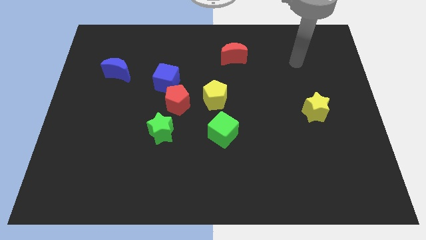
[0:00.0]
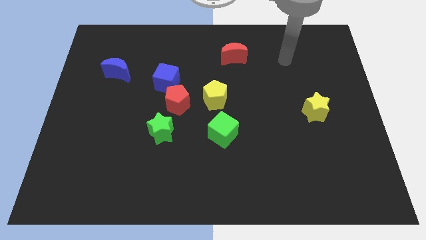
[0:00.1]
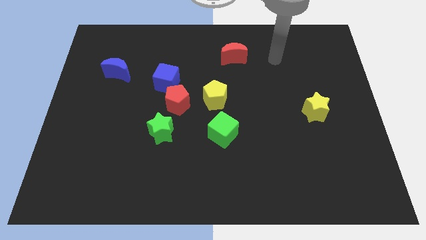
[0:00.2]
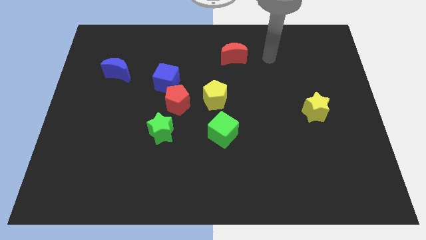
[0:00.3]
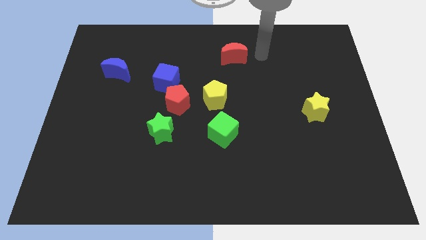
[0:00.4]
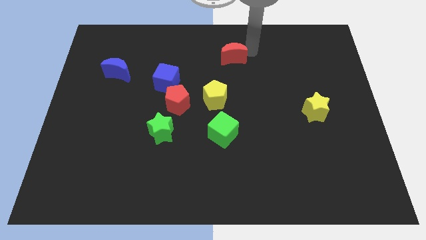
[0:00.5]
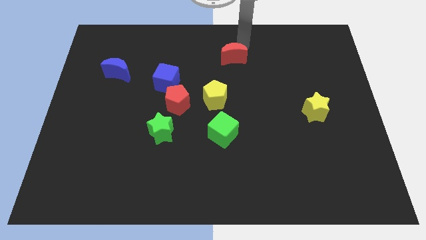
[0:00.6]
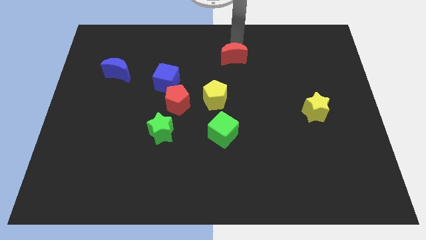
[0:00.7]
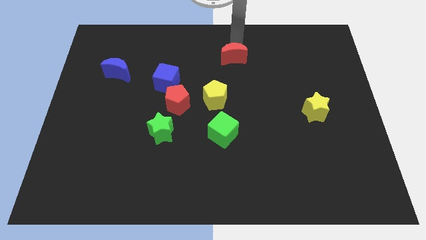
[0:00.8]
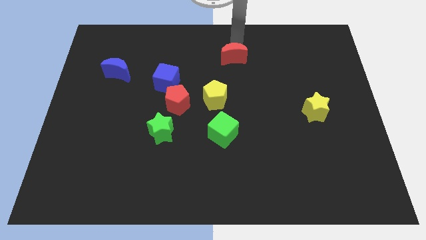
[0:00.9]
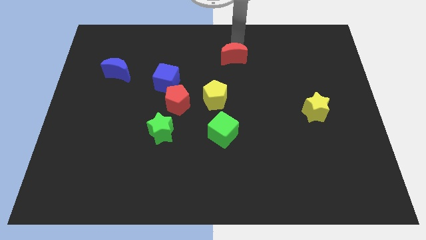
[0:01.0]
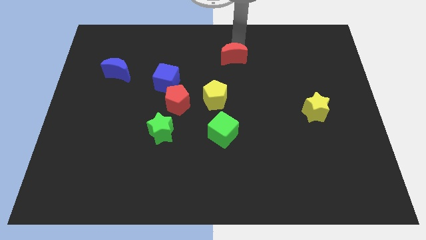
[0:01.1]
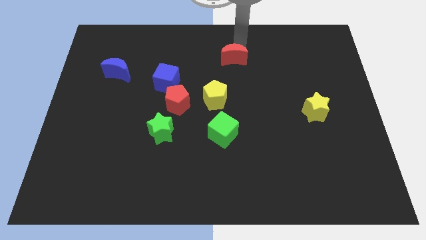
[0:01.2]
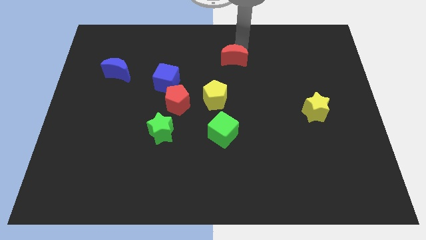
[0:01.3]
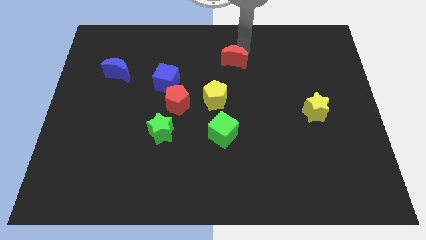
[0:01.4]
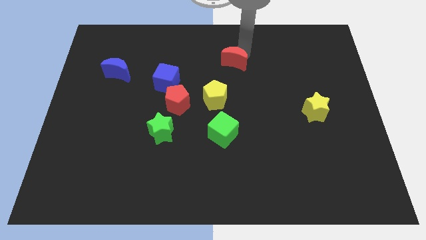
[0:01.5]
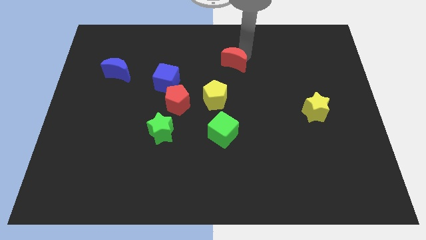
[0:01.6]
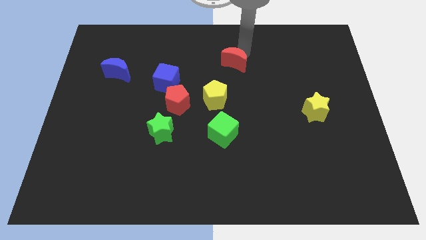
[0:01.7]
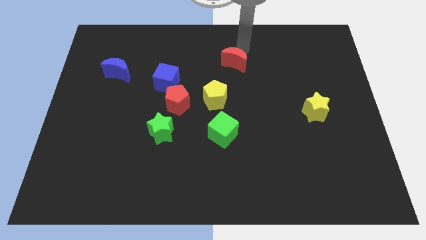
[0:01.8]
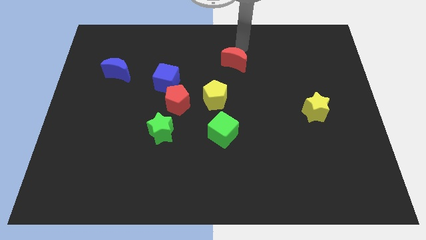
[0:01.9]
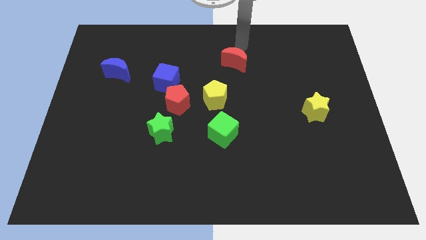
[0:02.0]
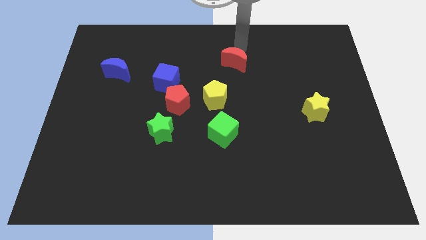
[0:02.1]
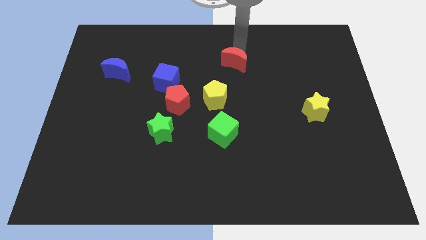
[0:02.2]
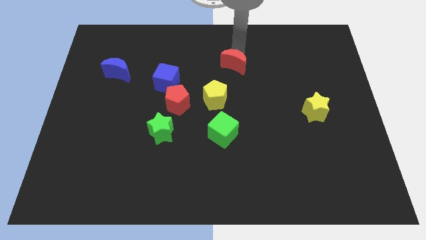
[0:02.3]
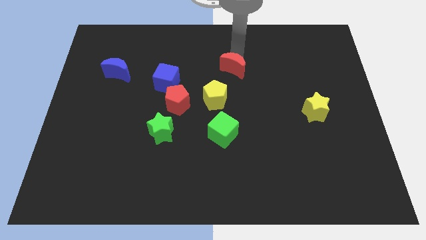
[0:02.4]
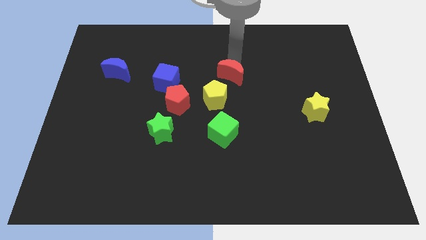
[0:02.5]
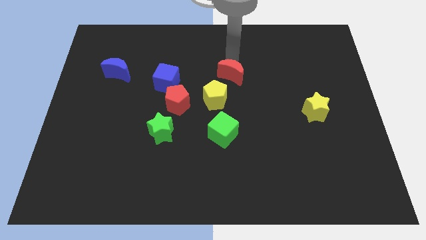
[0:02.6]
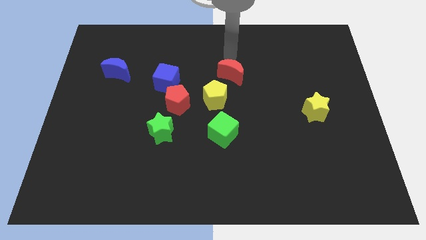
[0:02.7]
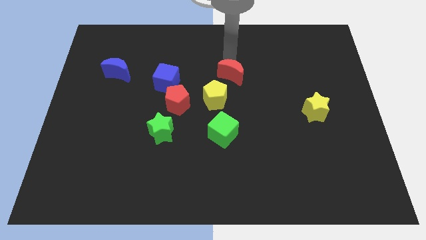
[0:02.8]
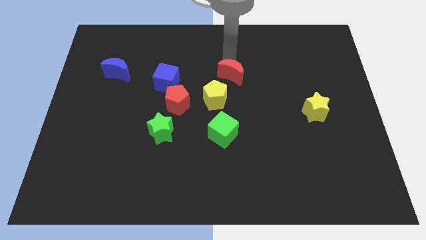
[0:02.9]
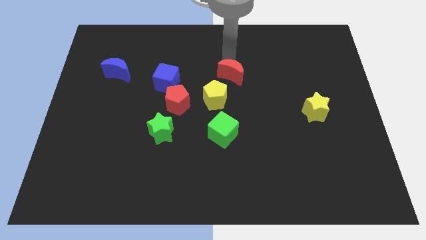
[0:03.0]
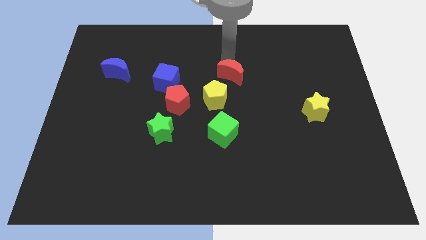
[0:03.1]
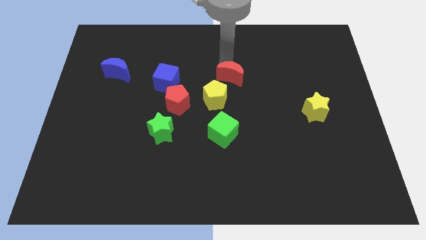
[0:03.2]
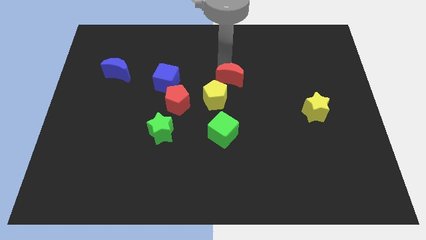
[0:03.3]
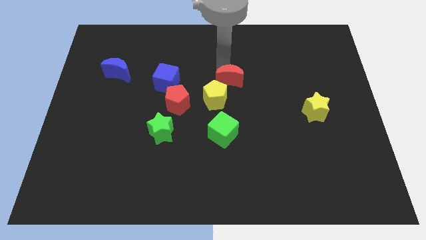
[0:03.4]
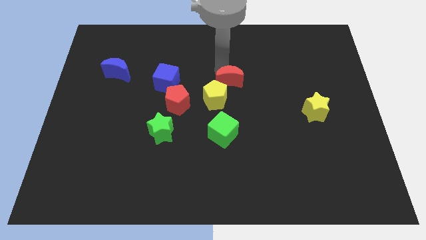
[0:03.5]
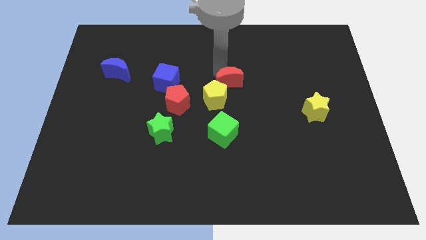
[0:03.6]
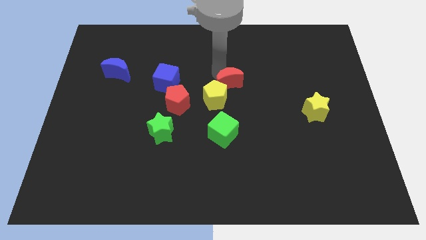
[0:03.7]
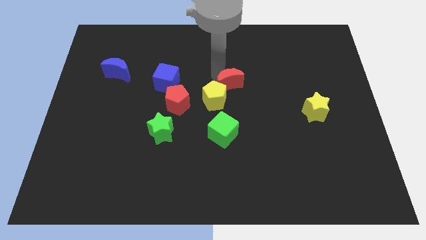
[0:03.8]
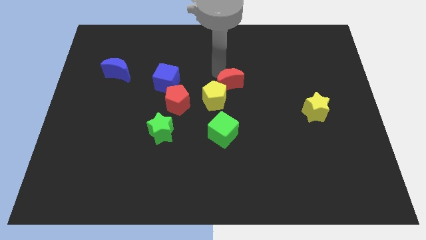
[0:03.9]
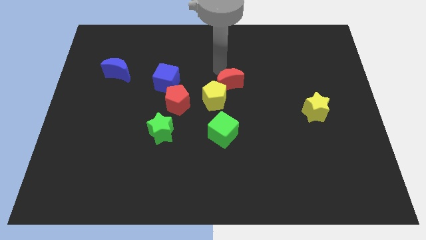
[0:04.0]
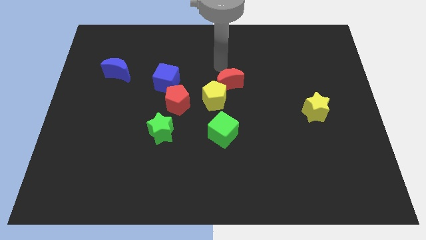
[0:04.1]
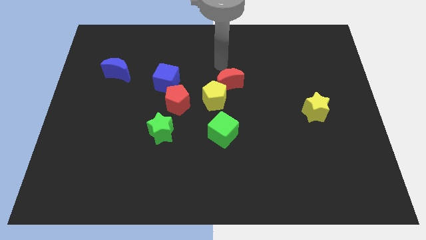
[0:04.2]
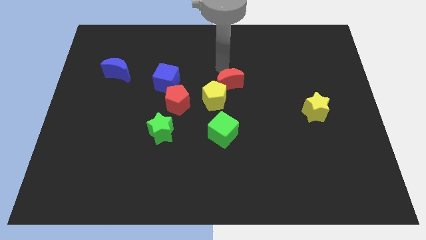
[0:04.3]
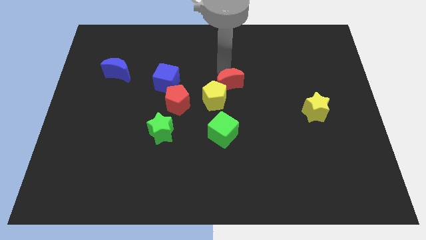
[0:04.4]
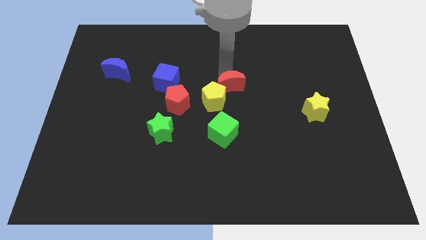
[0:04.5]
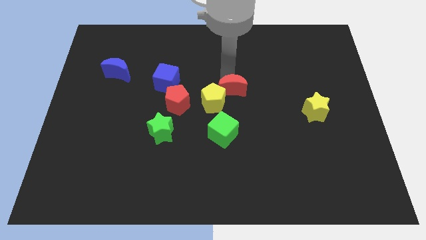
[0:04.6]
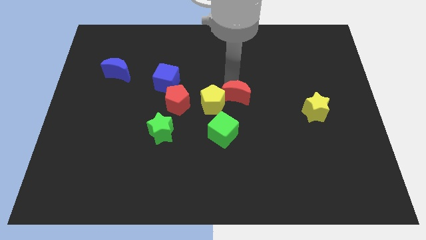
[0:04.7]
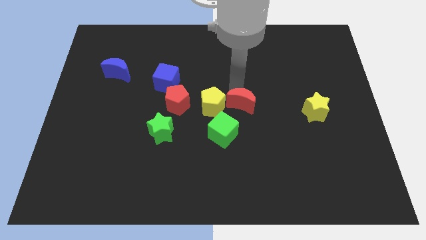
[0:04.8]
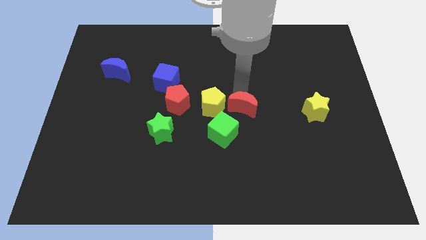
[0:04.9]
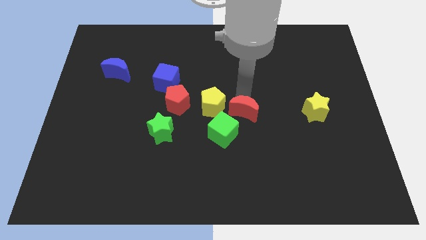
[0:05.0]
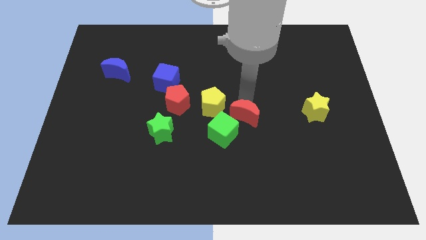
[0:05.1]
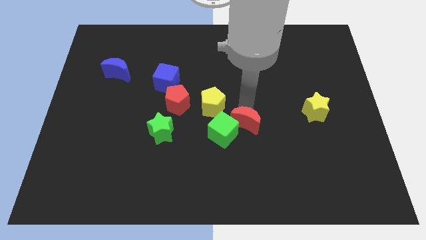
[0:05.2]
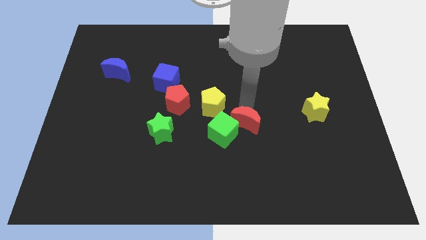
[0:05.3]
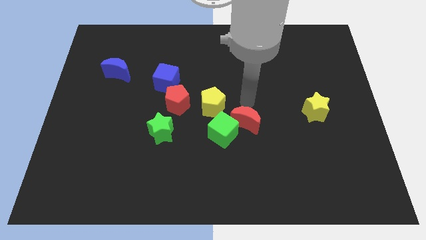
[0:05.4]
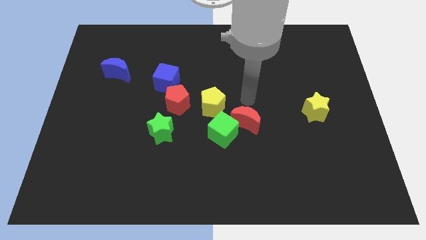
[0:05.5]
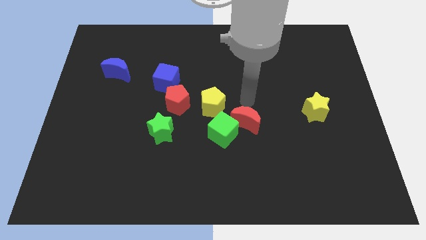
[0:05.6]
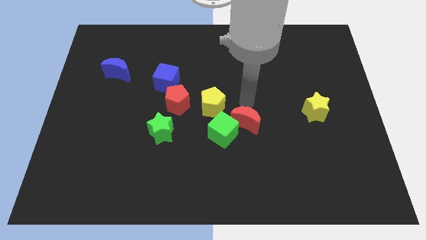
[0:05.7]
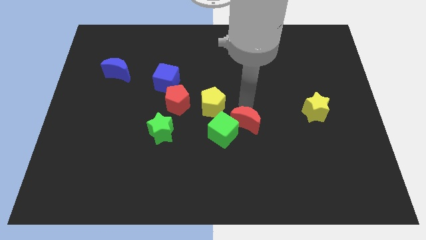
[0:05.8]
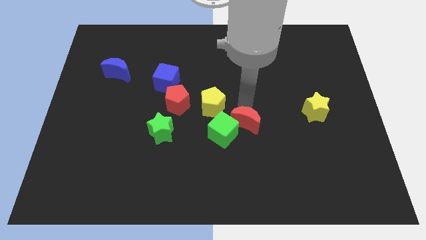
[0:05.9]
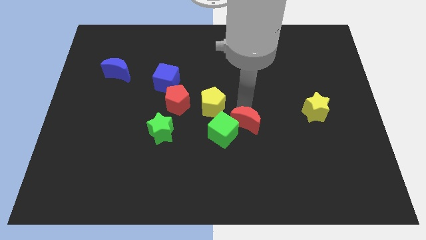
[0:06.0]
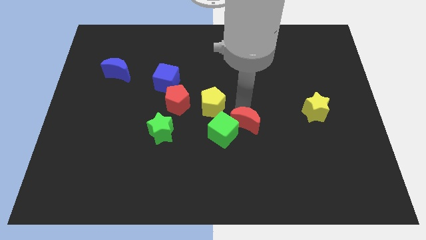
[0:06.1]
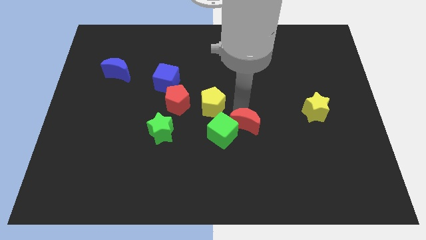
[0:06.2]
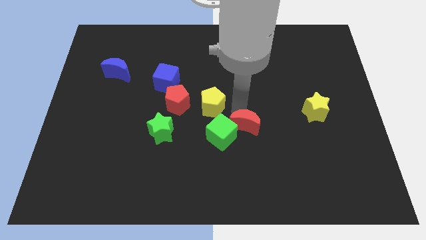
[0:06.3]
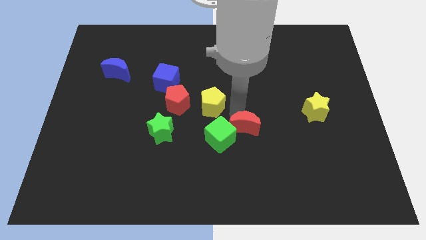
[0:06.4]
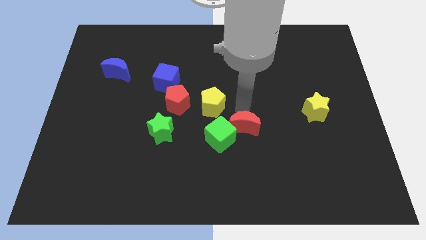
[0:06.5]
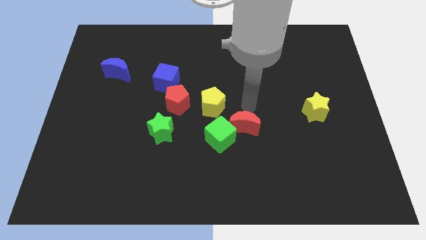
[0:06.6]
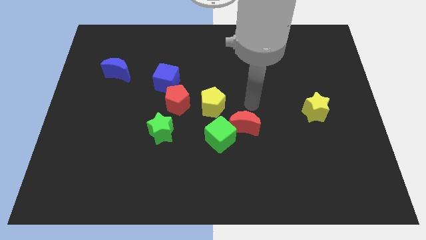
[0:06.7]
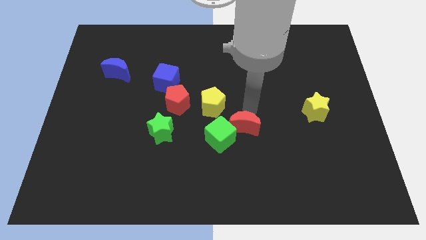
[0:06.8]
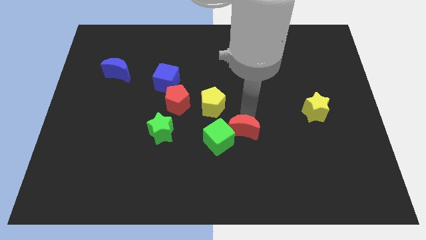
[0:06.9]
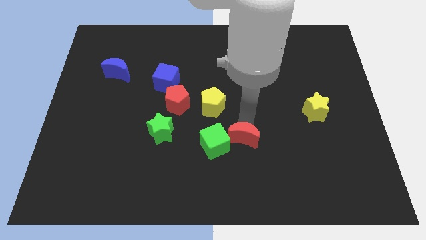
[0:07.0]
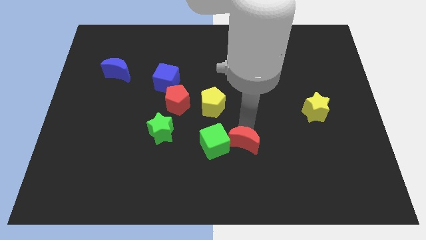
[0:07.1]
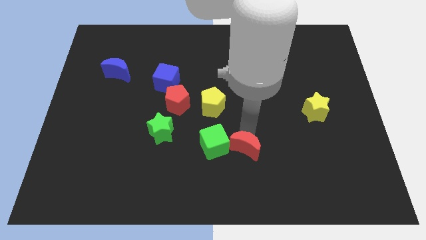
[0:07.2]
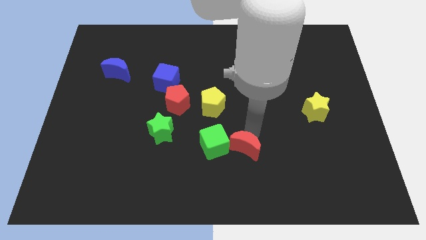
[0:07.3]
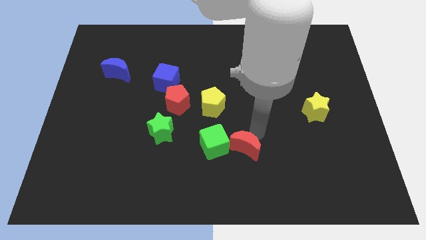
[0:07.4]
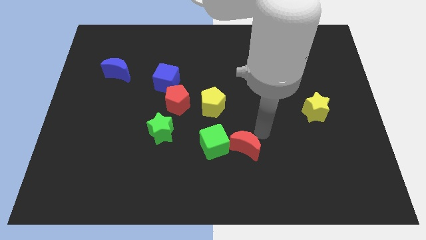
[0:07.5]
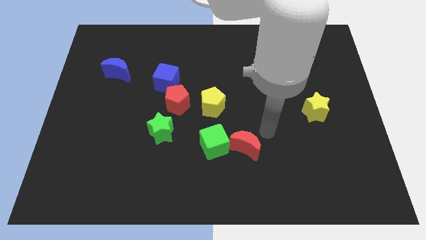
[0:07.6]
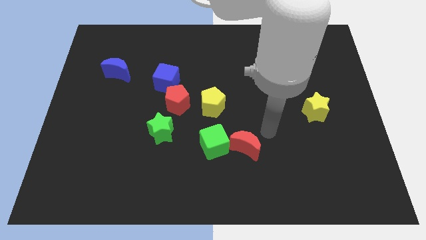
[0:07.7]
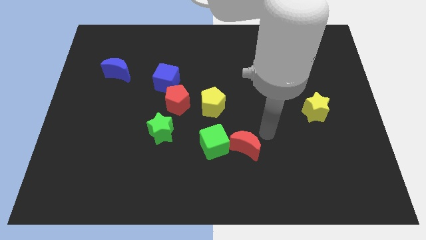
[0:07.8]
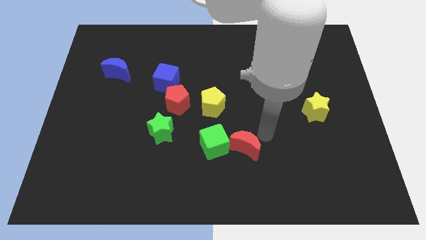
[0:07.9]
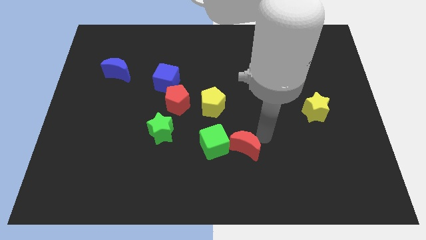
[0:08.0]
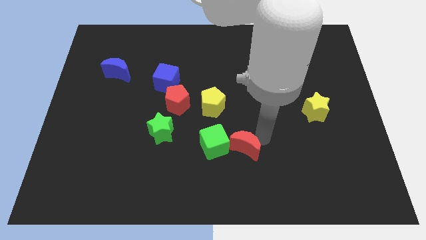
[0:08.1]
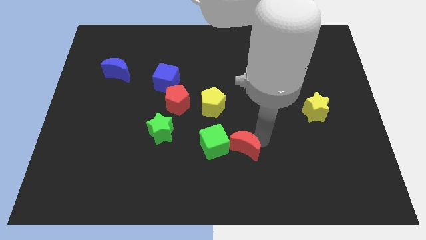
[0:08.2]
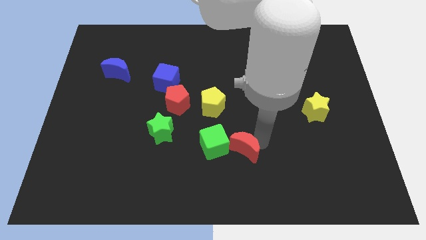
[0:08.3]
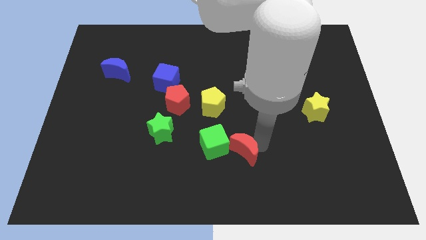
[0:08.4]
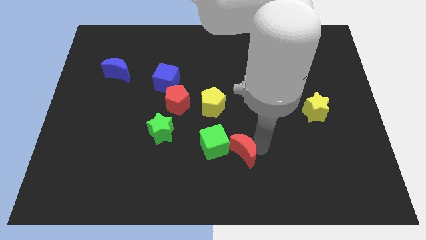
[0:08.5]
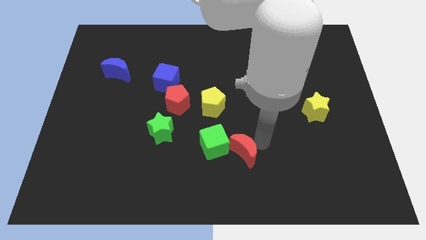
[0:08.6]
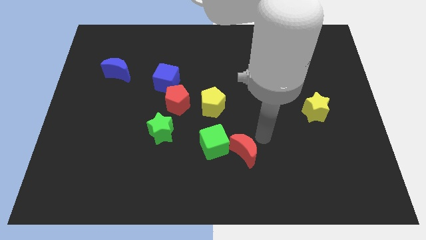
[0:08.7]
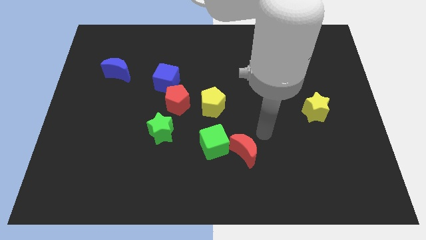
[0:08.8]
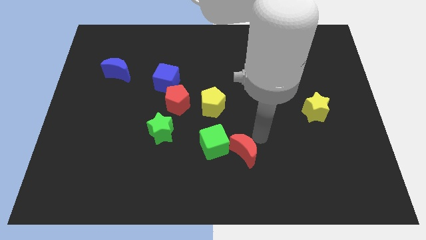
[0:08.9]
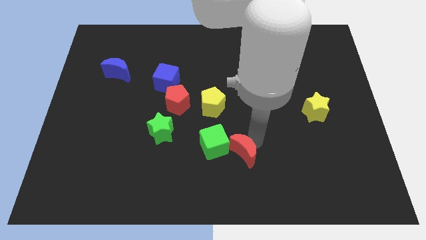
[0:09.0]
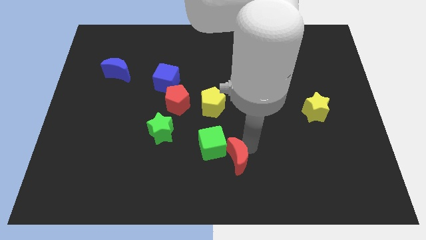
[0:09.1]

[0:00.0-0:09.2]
slide the red moon to the bottom
